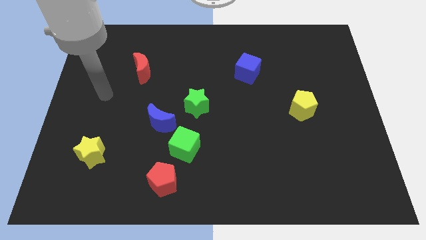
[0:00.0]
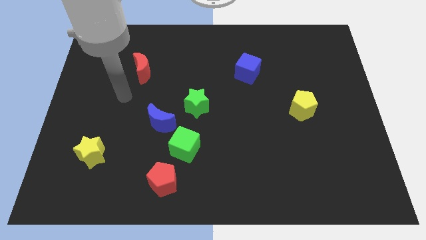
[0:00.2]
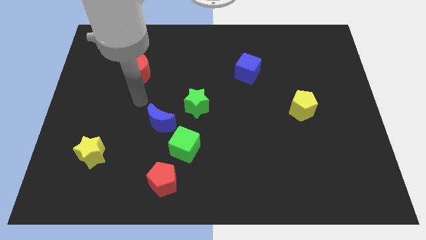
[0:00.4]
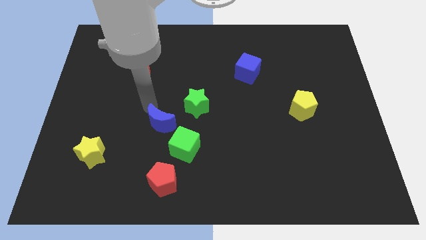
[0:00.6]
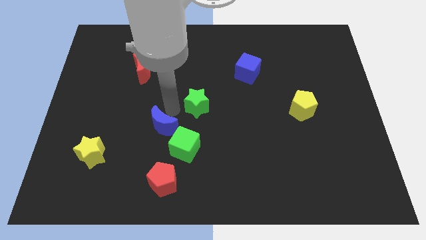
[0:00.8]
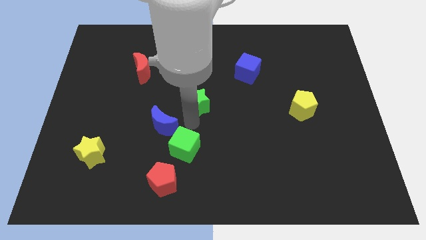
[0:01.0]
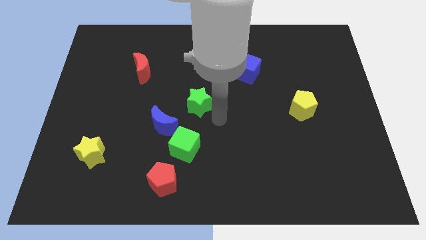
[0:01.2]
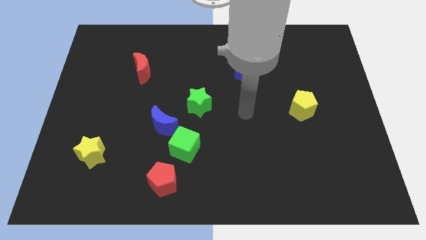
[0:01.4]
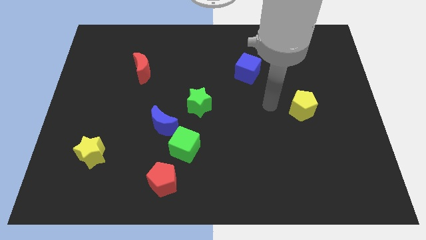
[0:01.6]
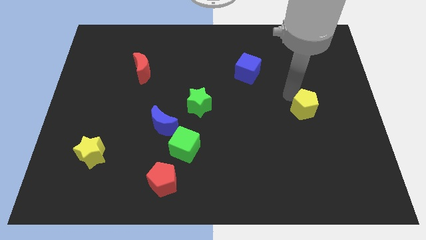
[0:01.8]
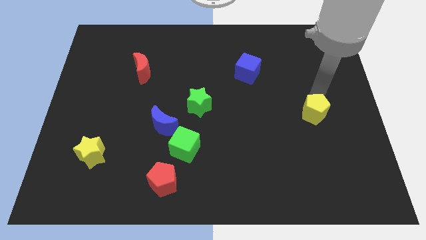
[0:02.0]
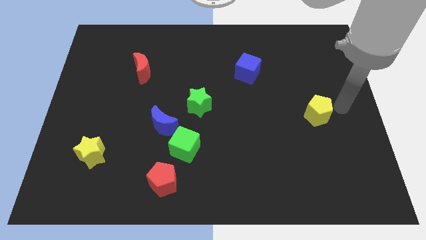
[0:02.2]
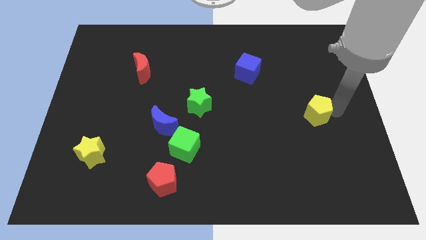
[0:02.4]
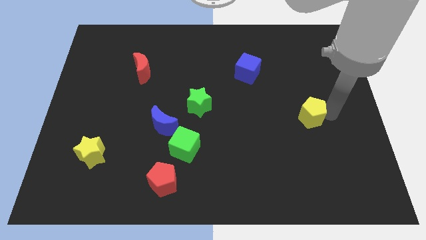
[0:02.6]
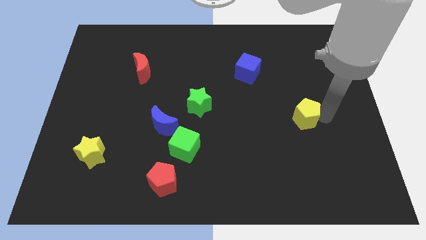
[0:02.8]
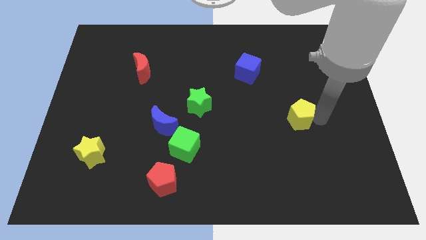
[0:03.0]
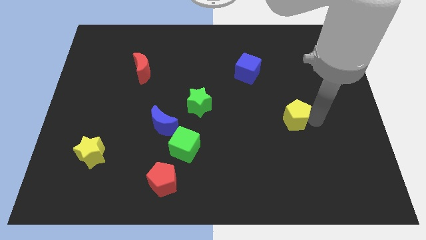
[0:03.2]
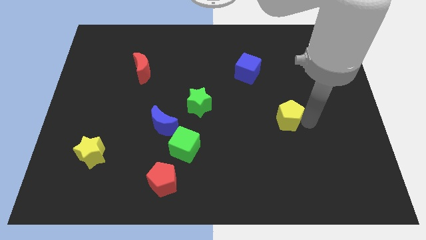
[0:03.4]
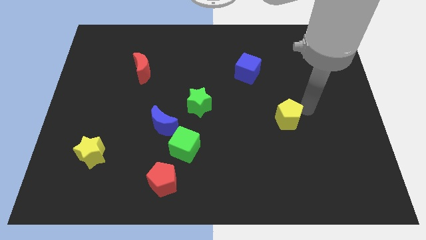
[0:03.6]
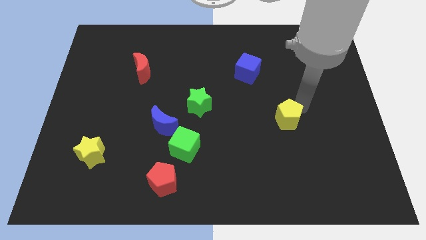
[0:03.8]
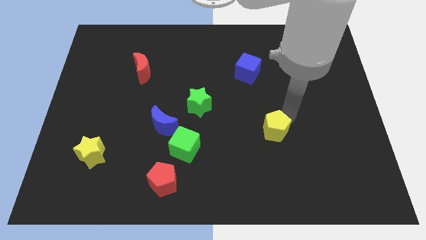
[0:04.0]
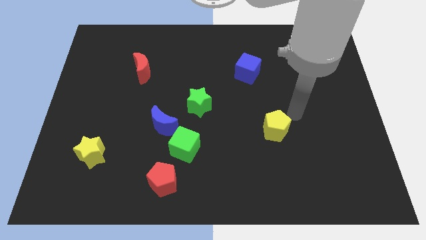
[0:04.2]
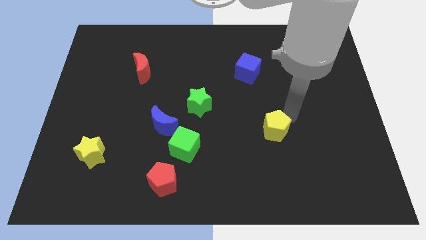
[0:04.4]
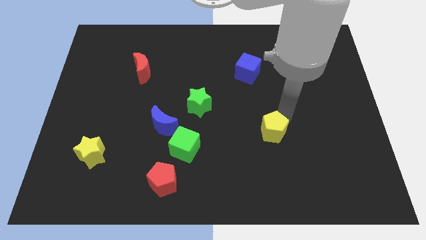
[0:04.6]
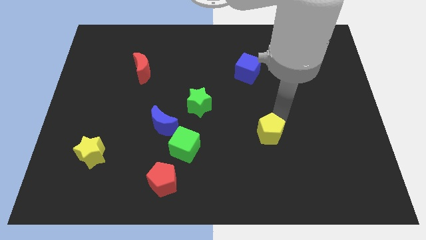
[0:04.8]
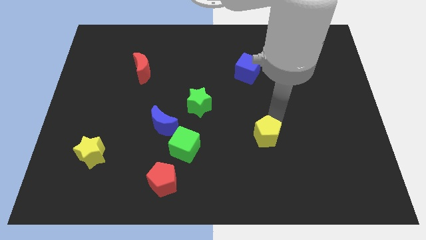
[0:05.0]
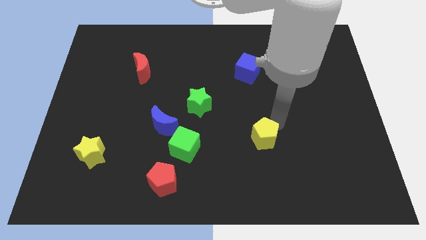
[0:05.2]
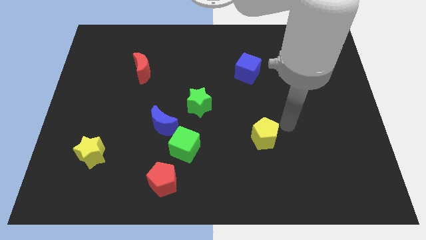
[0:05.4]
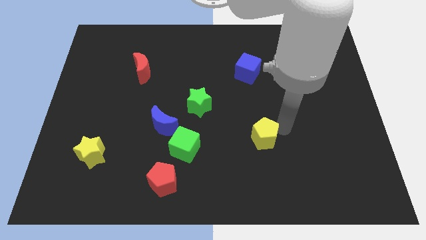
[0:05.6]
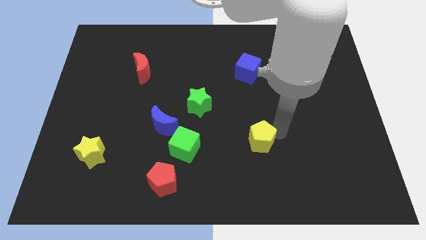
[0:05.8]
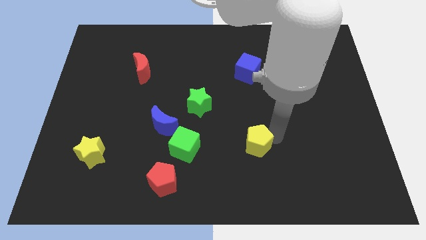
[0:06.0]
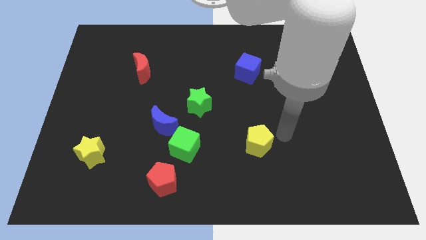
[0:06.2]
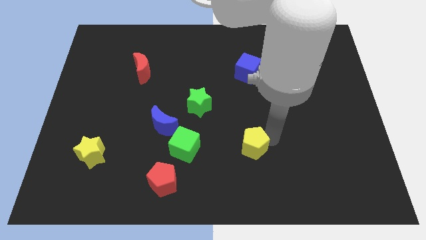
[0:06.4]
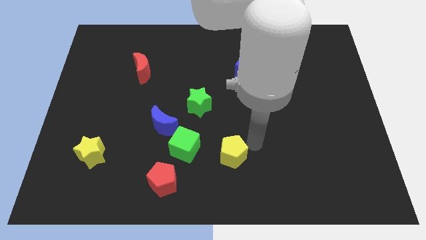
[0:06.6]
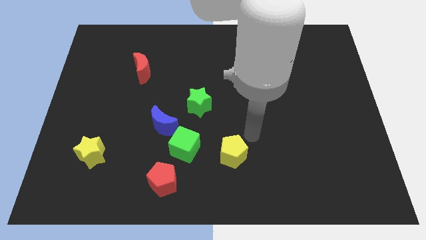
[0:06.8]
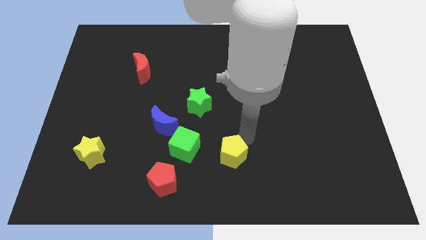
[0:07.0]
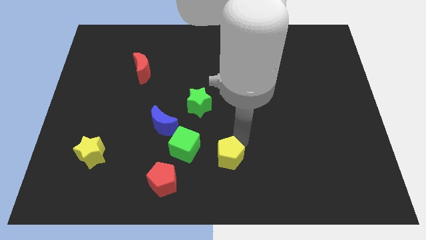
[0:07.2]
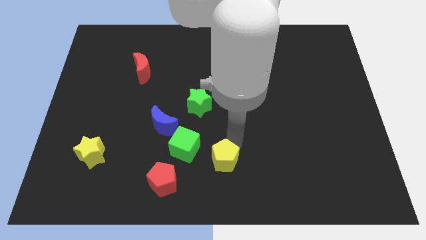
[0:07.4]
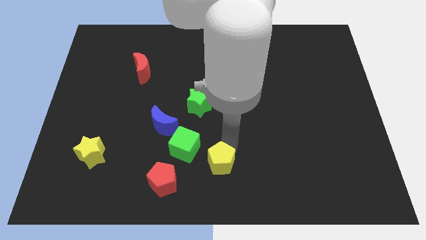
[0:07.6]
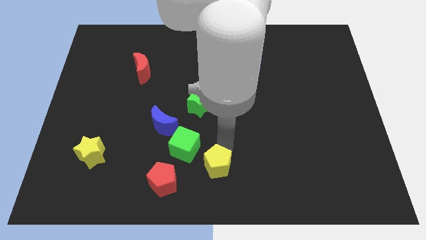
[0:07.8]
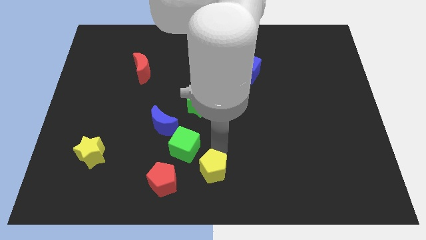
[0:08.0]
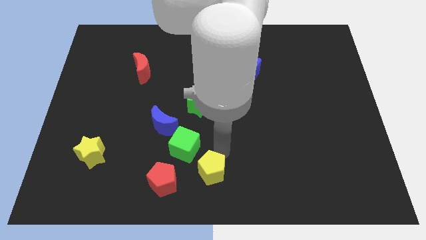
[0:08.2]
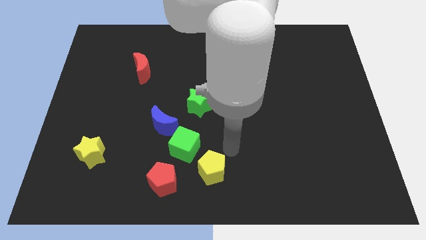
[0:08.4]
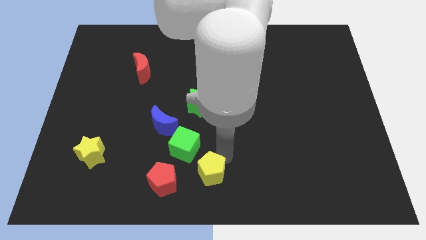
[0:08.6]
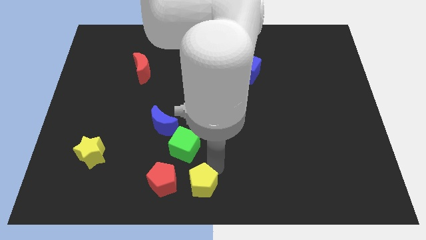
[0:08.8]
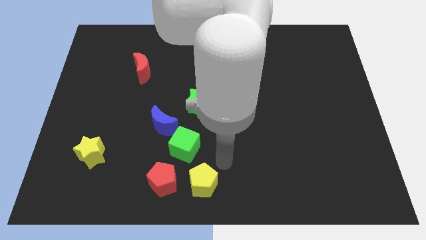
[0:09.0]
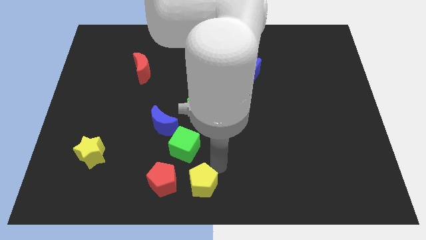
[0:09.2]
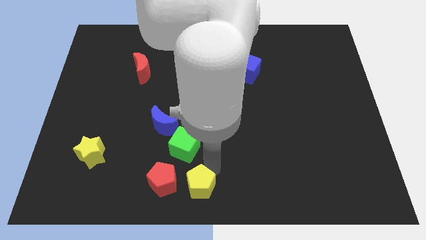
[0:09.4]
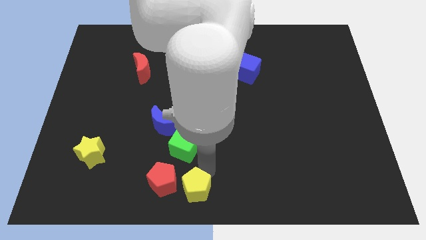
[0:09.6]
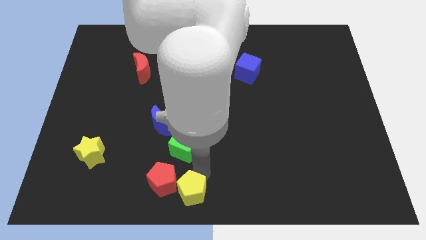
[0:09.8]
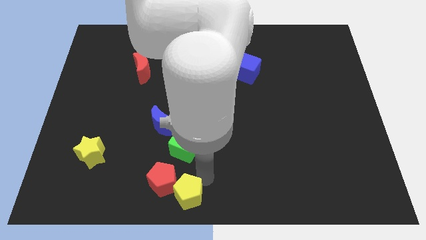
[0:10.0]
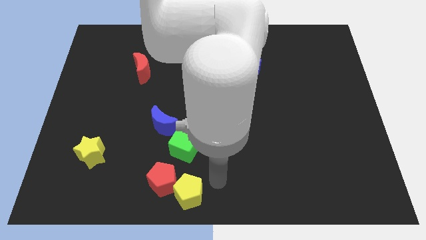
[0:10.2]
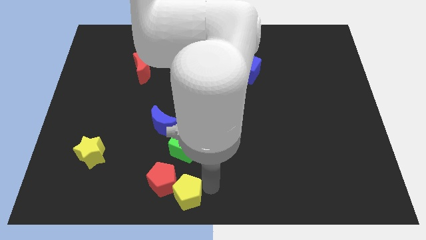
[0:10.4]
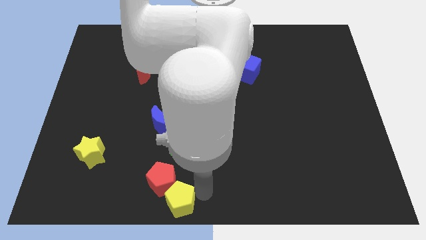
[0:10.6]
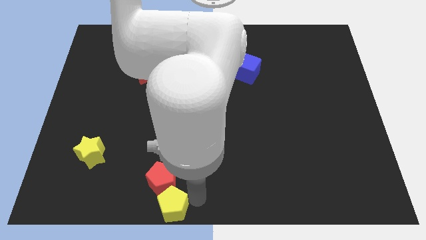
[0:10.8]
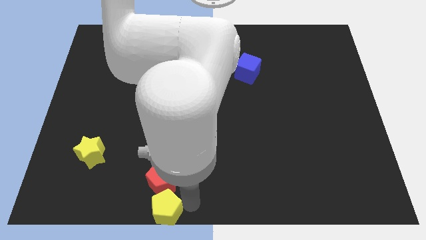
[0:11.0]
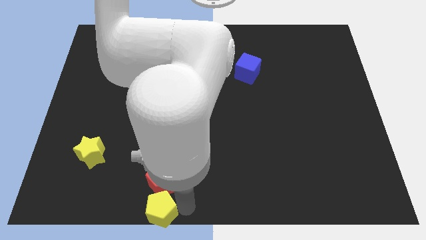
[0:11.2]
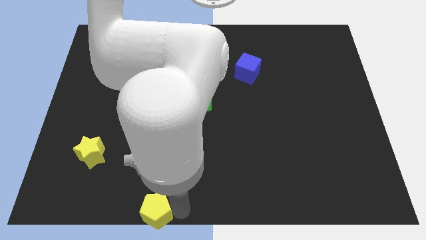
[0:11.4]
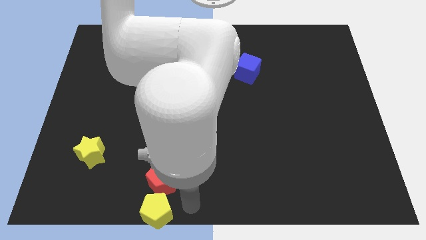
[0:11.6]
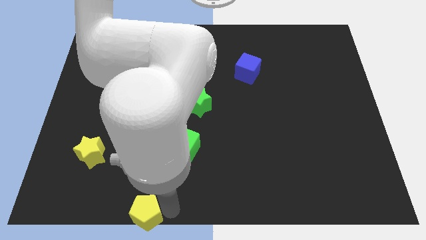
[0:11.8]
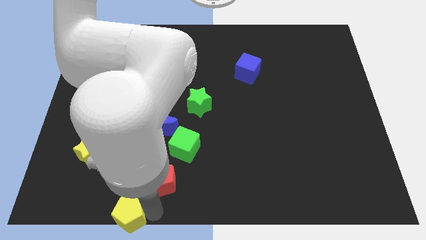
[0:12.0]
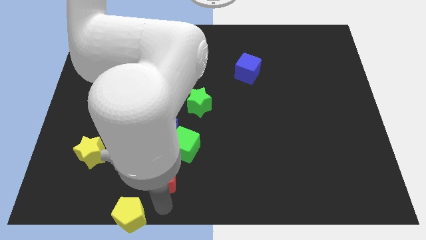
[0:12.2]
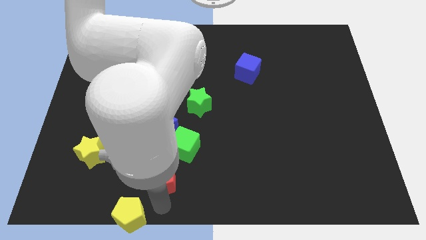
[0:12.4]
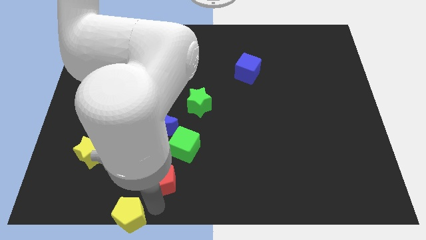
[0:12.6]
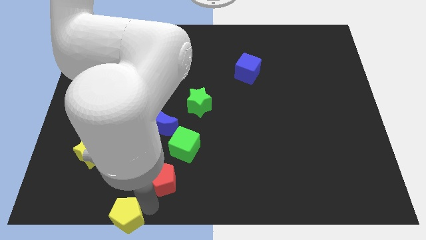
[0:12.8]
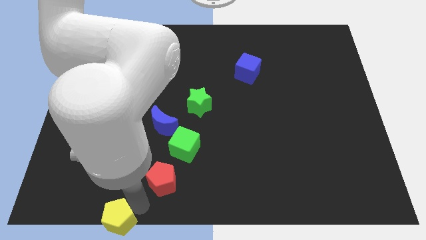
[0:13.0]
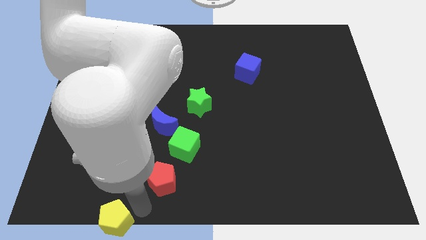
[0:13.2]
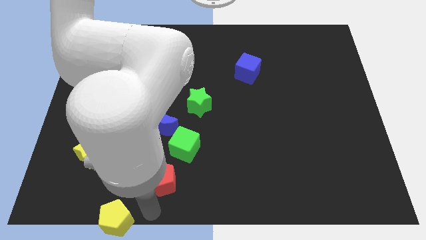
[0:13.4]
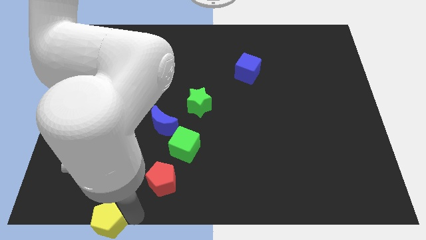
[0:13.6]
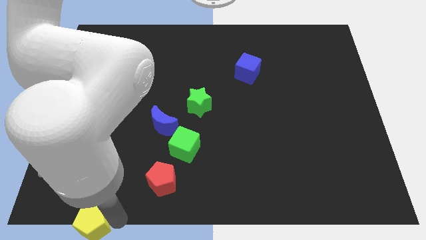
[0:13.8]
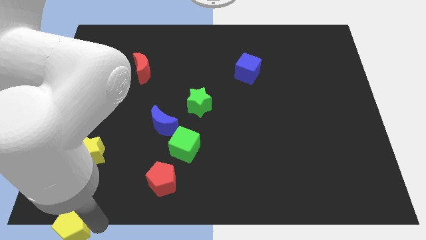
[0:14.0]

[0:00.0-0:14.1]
put the yellow pentagon to the bottom left of the board
